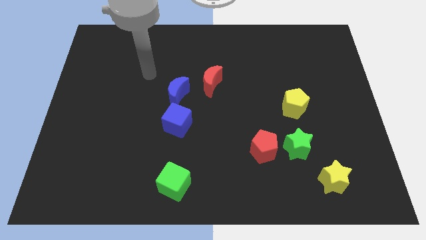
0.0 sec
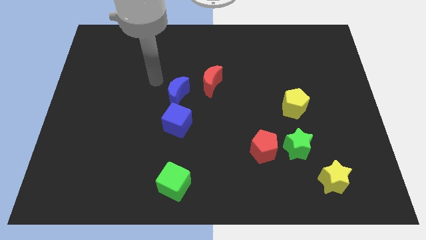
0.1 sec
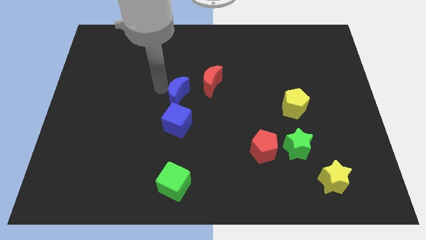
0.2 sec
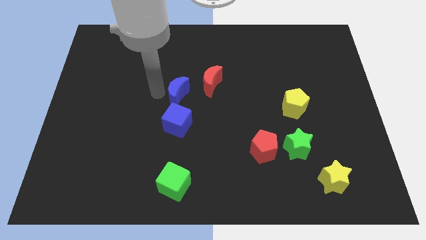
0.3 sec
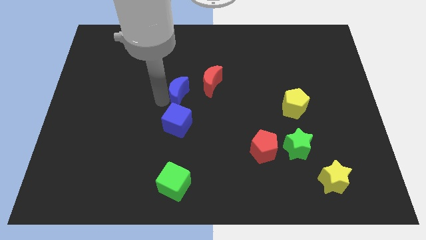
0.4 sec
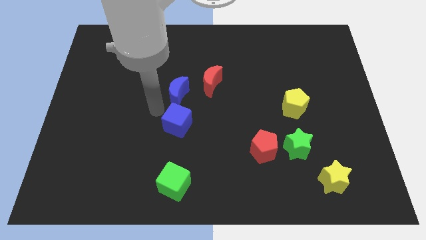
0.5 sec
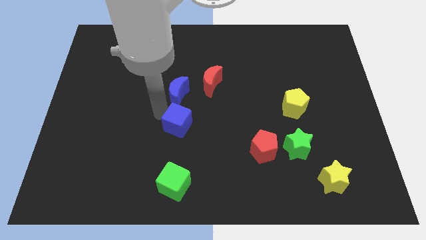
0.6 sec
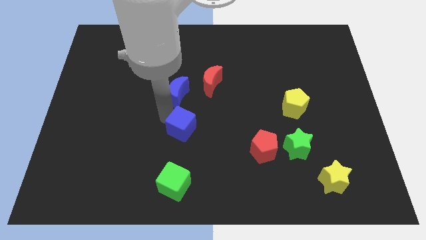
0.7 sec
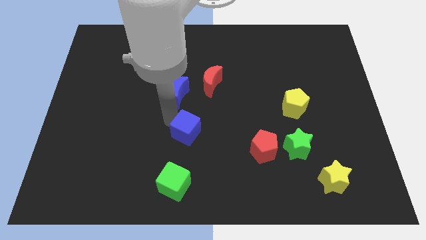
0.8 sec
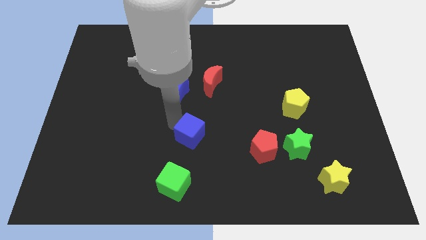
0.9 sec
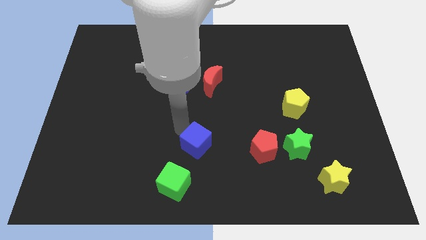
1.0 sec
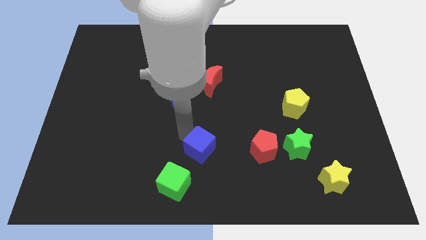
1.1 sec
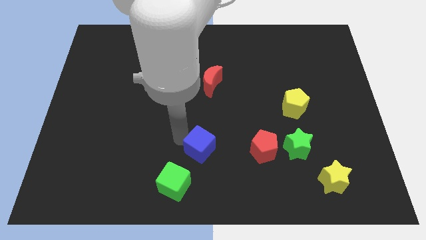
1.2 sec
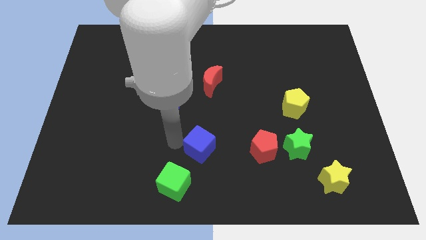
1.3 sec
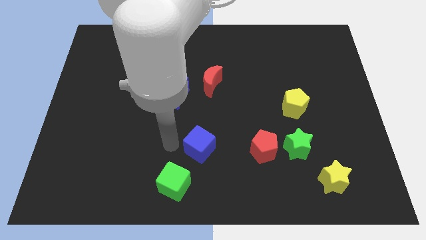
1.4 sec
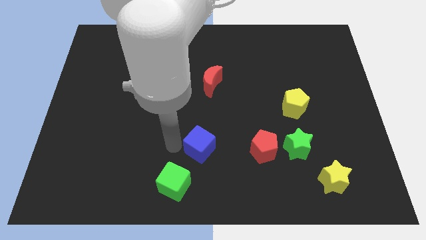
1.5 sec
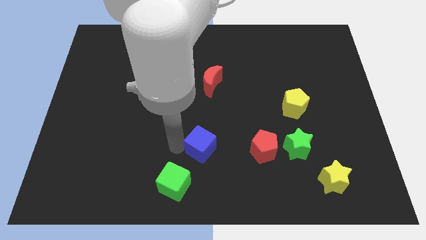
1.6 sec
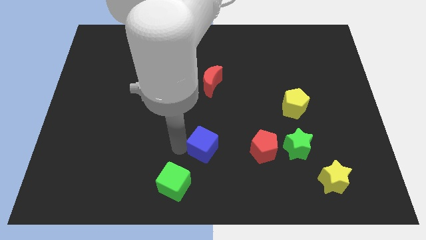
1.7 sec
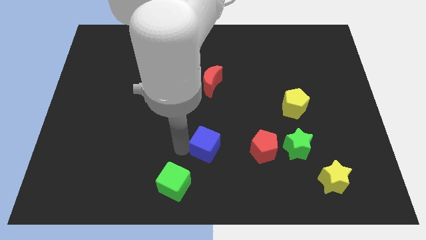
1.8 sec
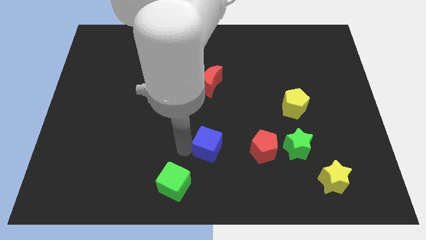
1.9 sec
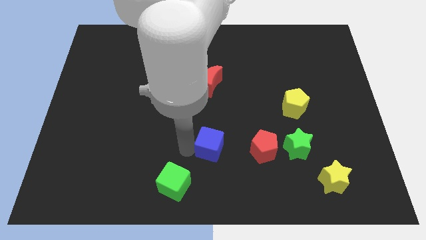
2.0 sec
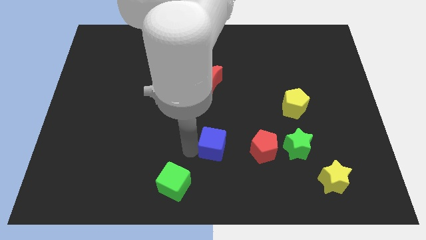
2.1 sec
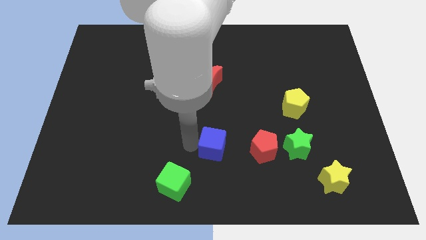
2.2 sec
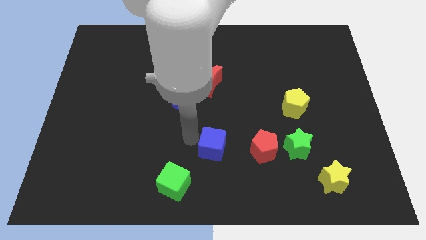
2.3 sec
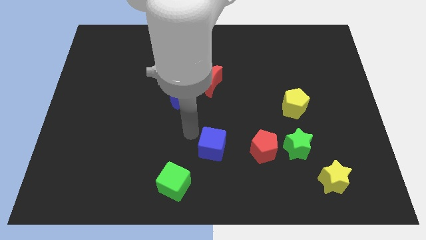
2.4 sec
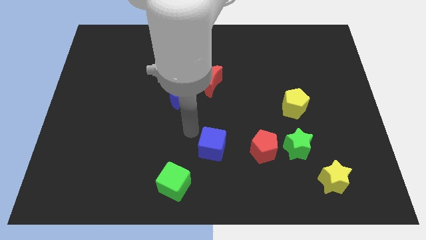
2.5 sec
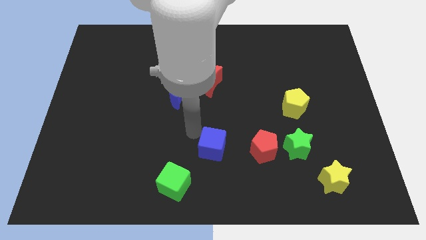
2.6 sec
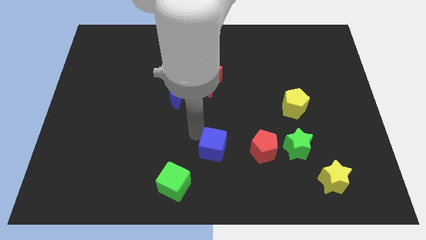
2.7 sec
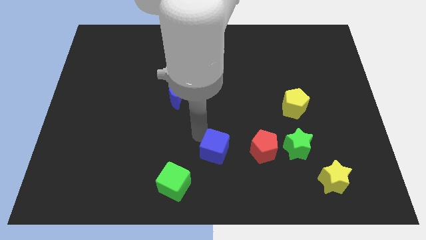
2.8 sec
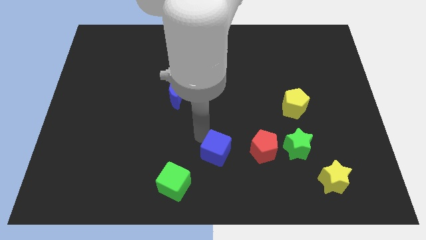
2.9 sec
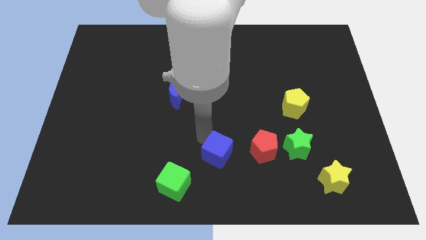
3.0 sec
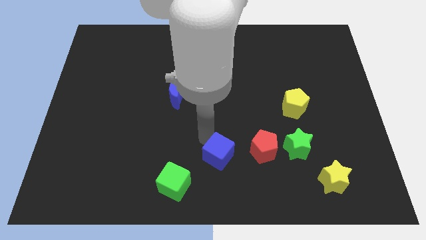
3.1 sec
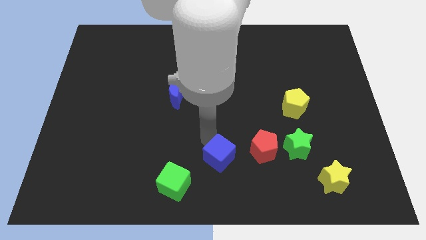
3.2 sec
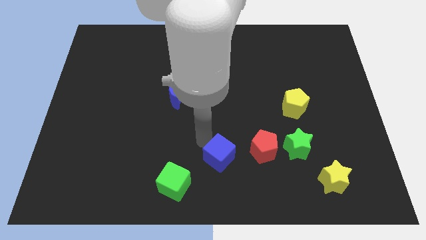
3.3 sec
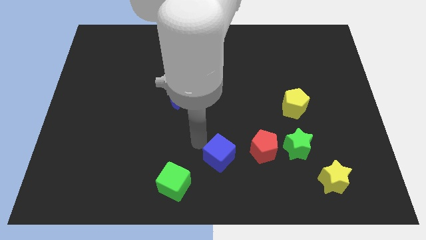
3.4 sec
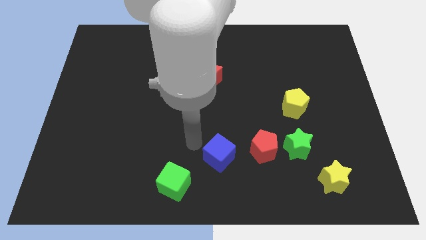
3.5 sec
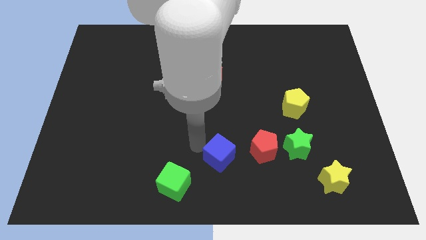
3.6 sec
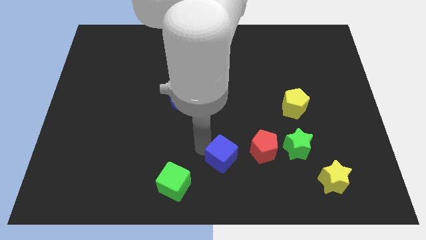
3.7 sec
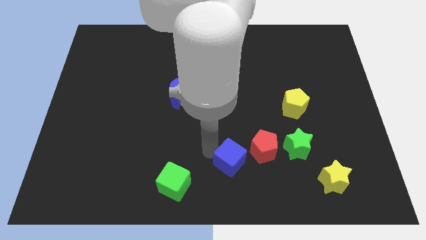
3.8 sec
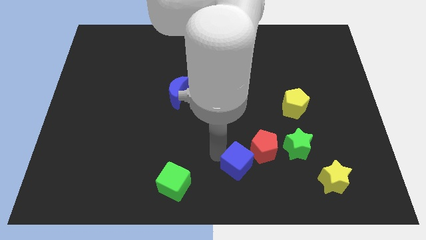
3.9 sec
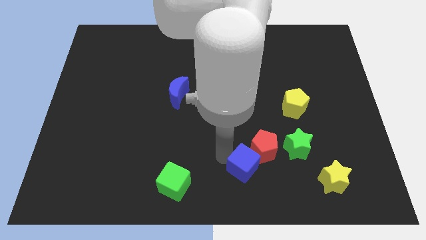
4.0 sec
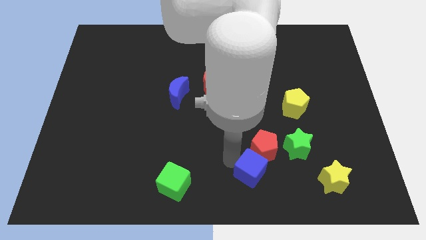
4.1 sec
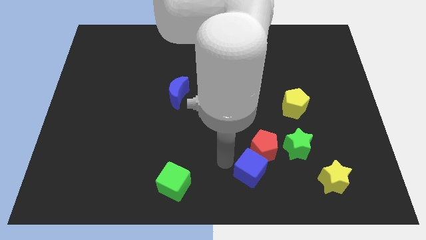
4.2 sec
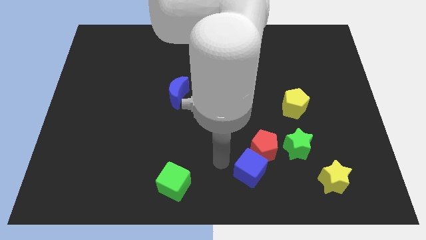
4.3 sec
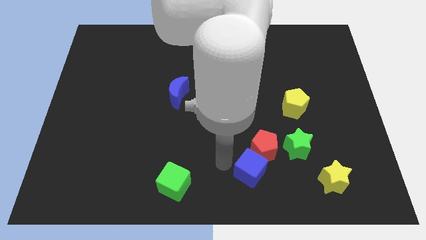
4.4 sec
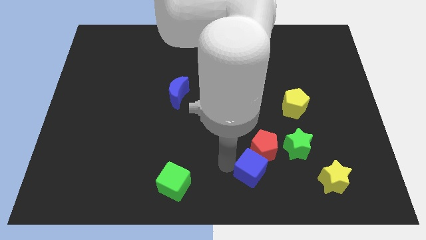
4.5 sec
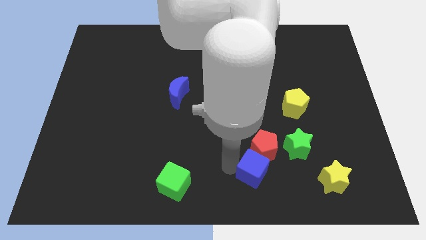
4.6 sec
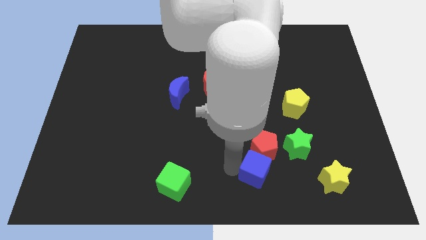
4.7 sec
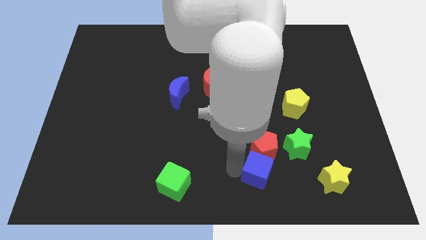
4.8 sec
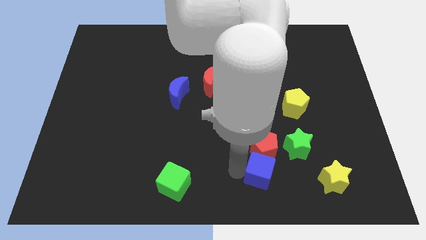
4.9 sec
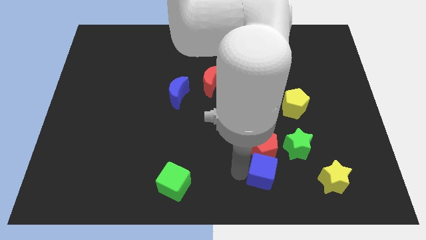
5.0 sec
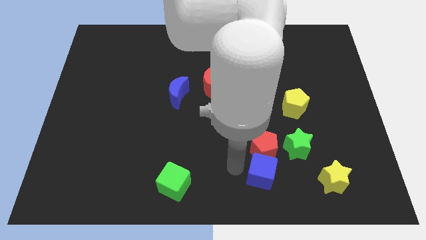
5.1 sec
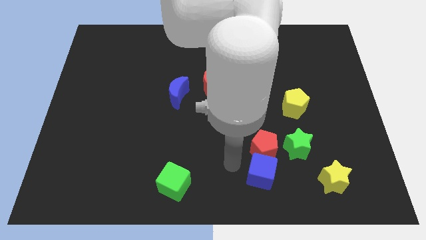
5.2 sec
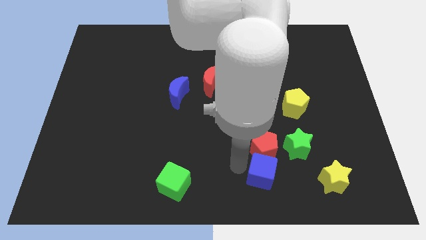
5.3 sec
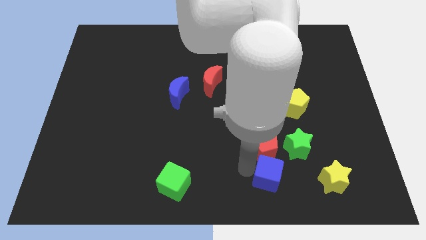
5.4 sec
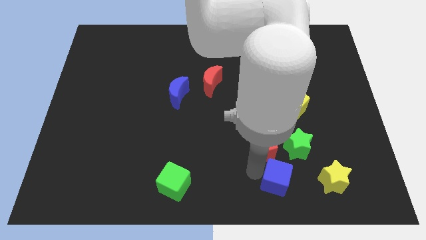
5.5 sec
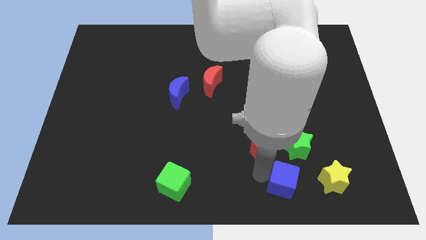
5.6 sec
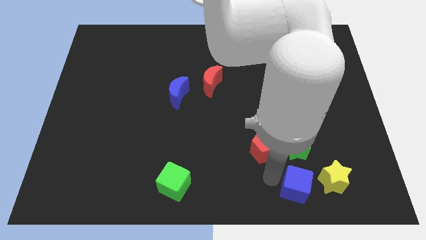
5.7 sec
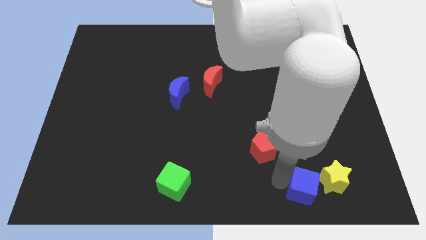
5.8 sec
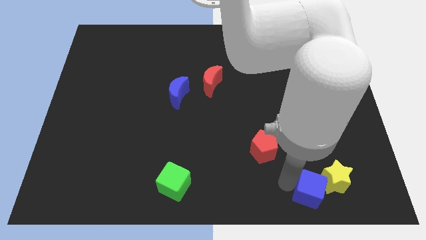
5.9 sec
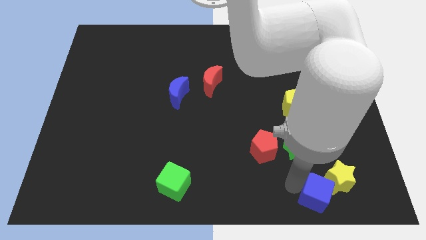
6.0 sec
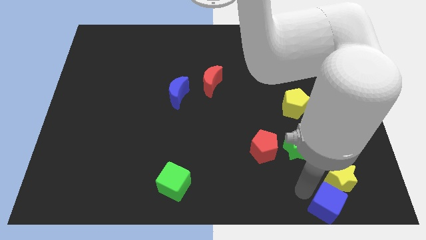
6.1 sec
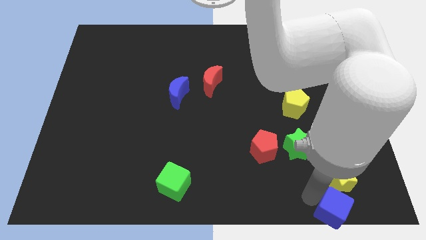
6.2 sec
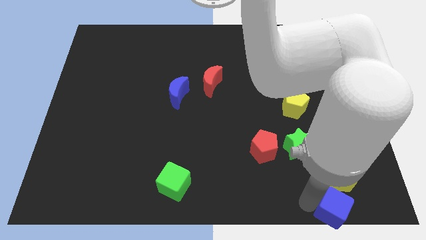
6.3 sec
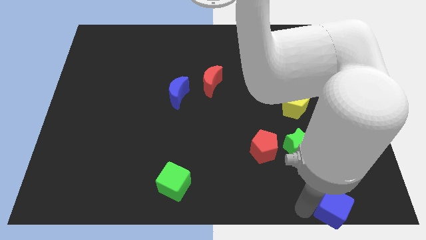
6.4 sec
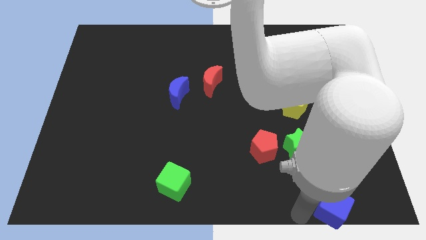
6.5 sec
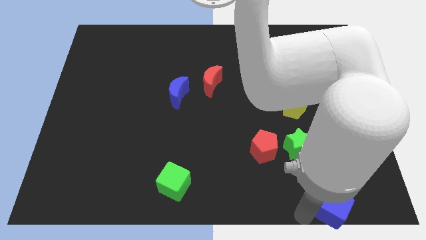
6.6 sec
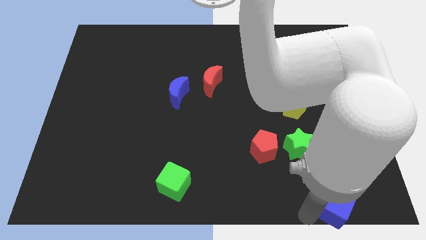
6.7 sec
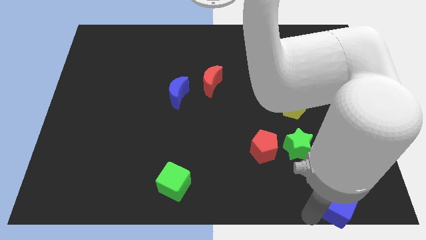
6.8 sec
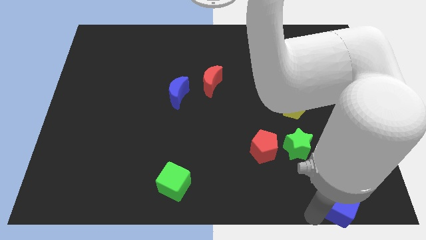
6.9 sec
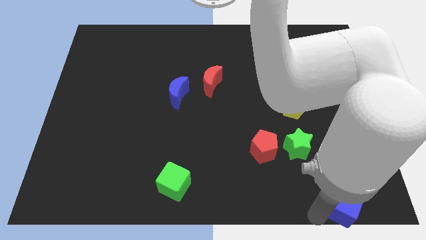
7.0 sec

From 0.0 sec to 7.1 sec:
put the blue cube to the bottom right

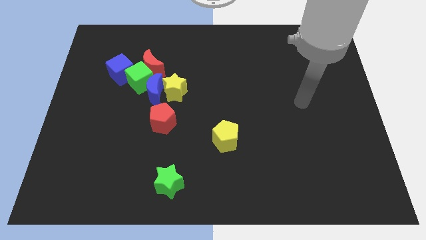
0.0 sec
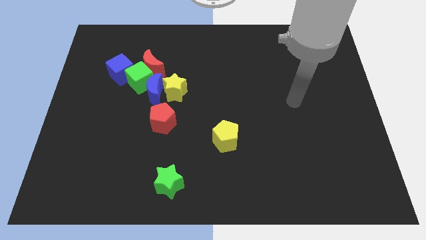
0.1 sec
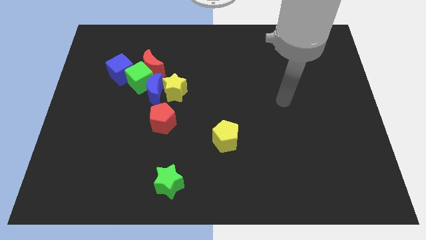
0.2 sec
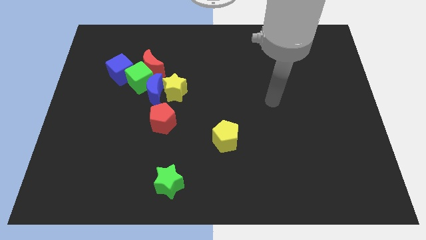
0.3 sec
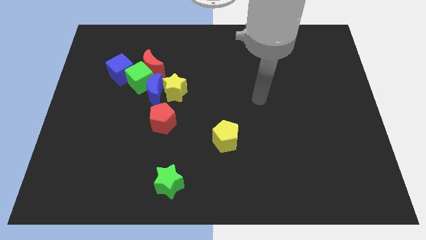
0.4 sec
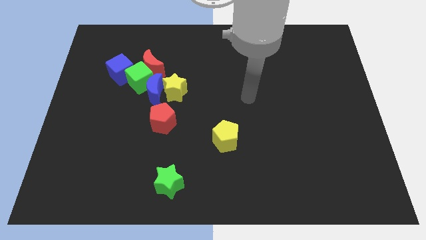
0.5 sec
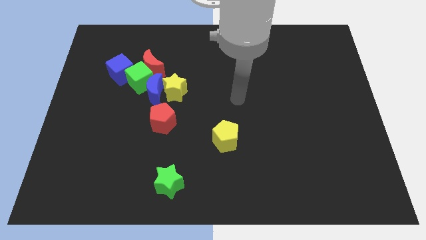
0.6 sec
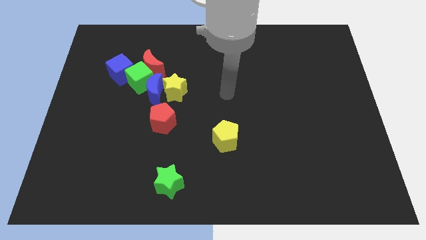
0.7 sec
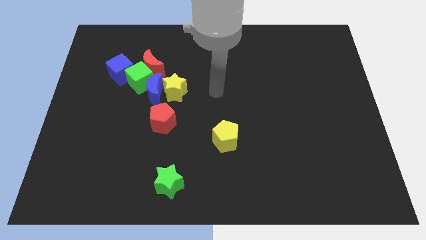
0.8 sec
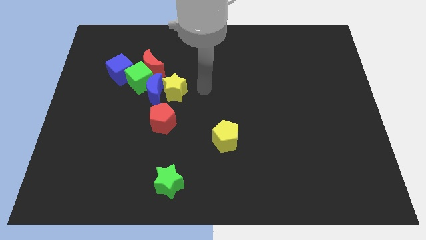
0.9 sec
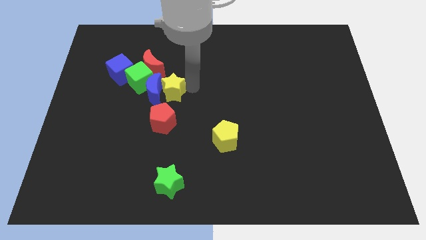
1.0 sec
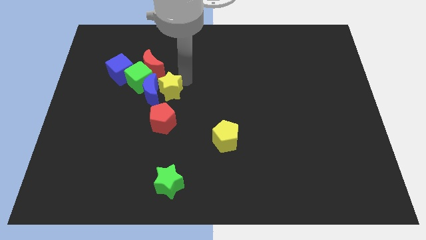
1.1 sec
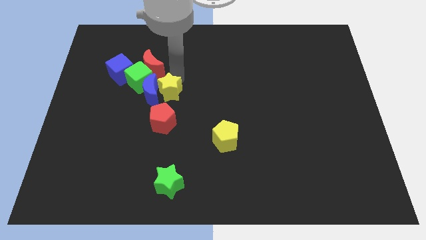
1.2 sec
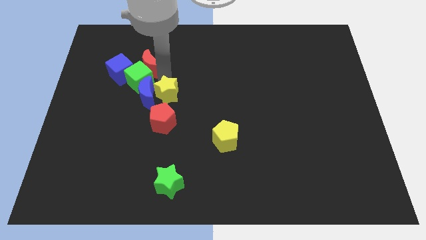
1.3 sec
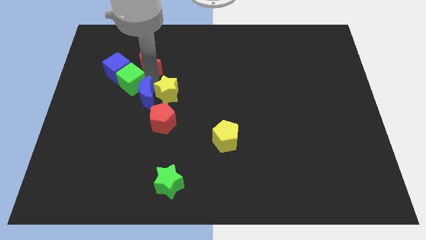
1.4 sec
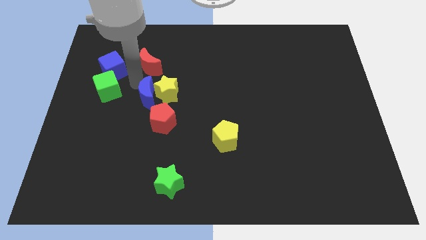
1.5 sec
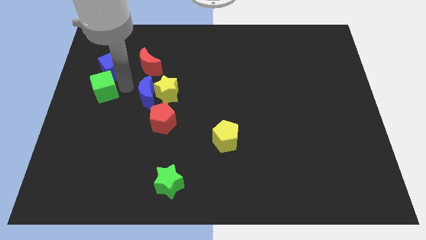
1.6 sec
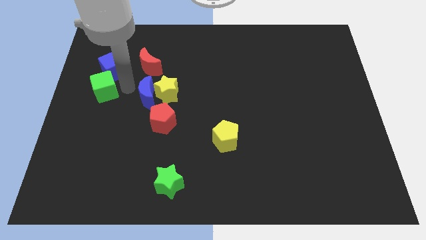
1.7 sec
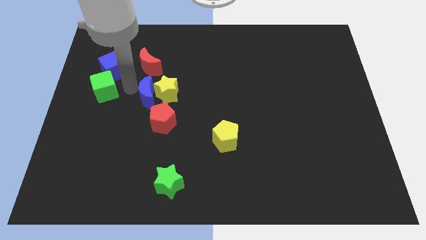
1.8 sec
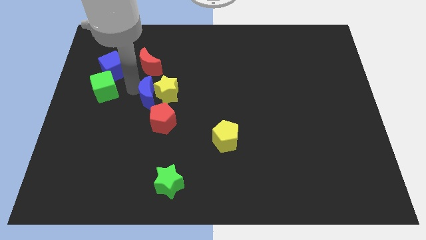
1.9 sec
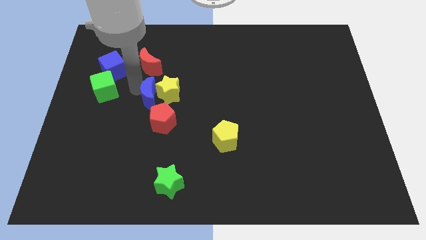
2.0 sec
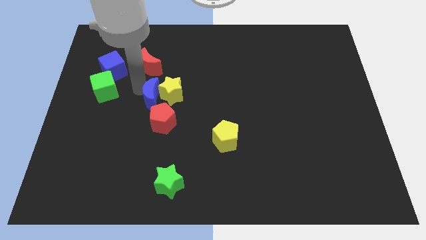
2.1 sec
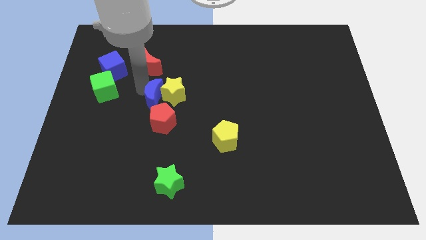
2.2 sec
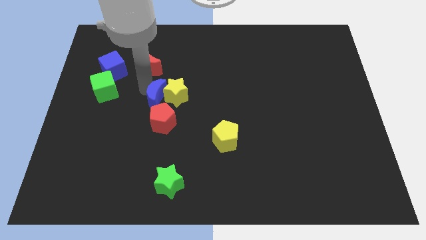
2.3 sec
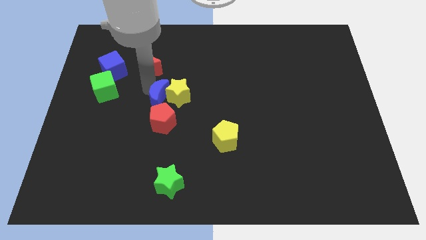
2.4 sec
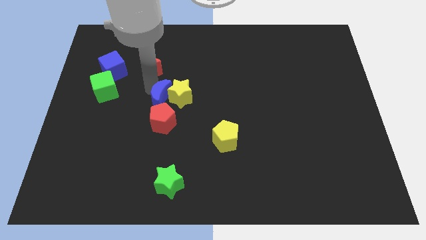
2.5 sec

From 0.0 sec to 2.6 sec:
slide the blue moon to the middle of the board
